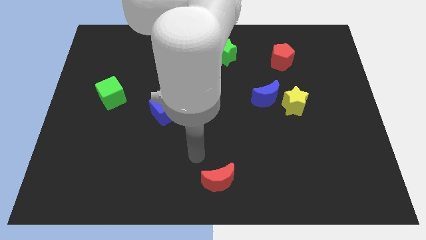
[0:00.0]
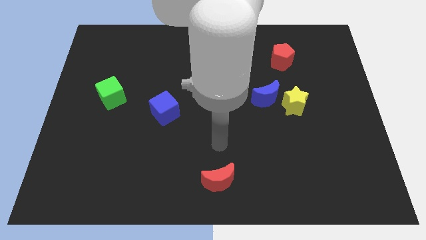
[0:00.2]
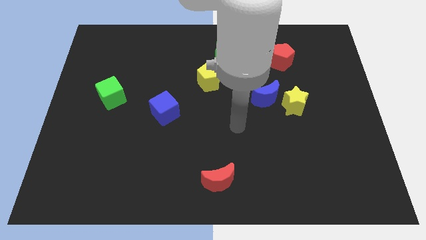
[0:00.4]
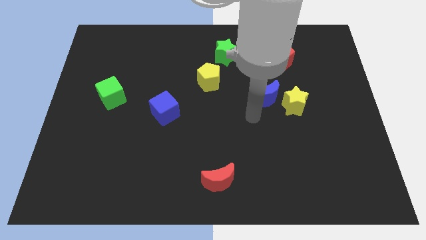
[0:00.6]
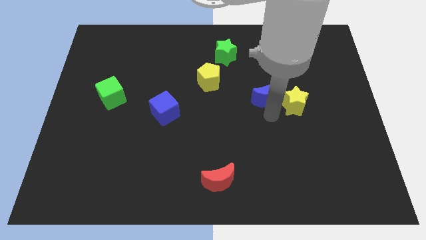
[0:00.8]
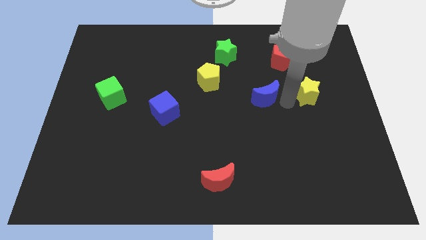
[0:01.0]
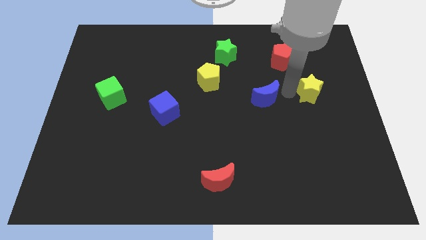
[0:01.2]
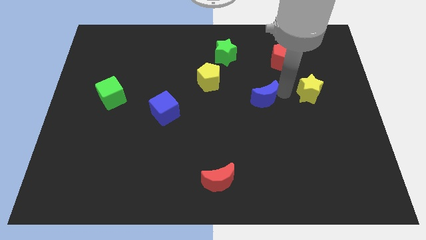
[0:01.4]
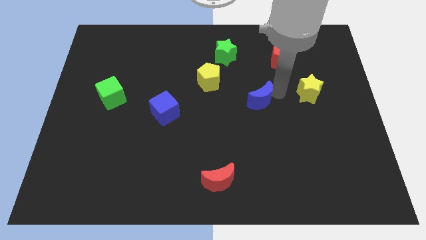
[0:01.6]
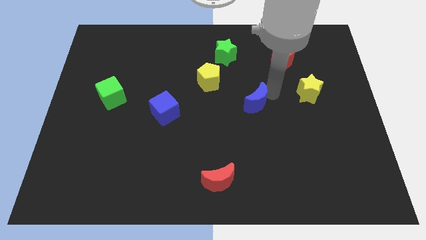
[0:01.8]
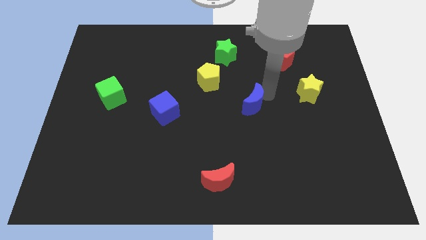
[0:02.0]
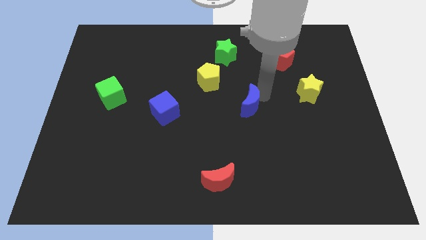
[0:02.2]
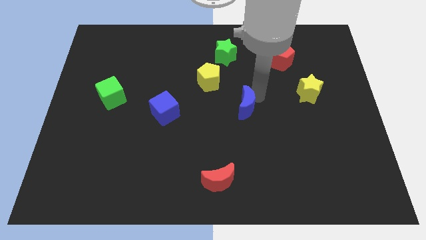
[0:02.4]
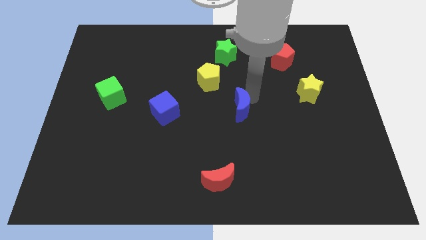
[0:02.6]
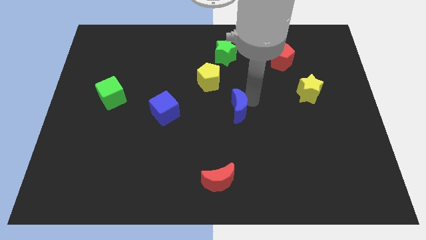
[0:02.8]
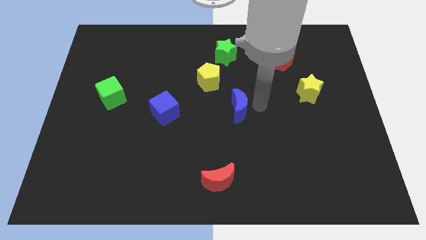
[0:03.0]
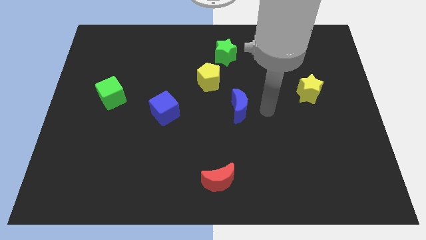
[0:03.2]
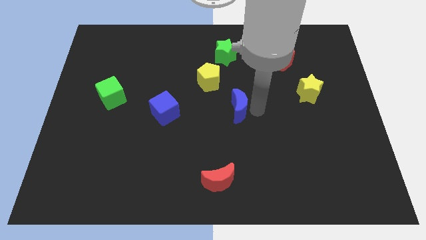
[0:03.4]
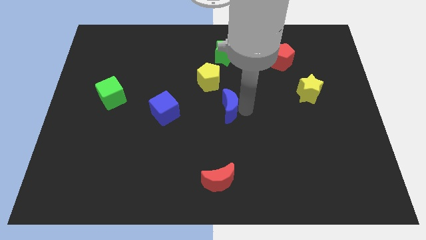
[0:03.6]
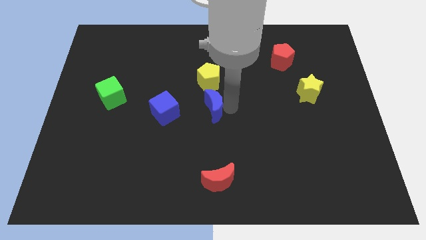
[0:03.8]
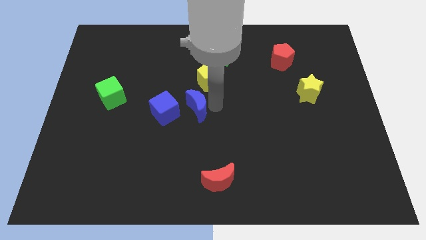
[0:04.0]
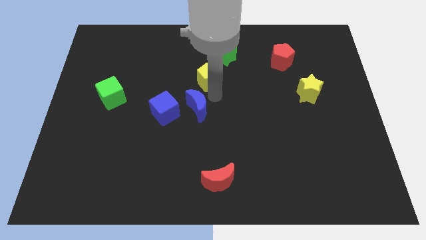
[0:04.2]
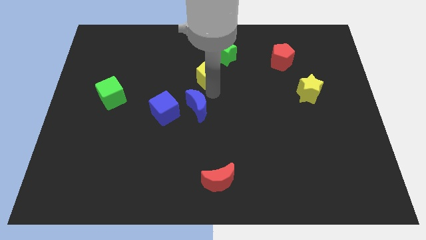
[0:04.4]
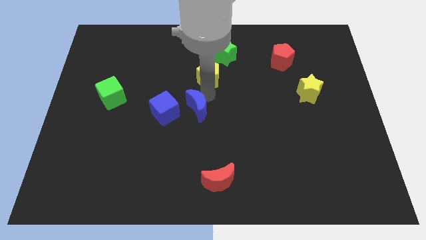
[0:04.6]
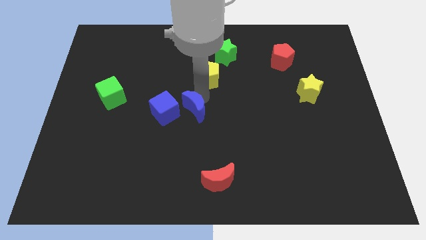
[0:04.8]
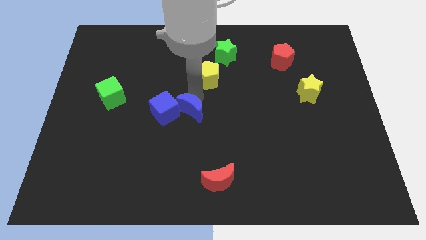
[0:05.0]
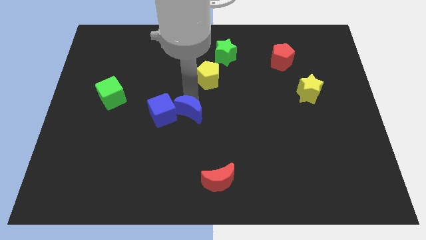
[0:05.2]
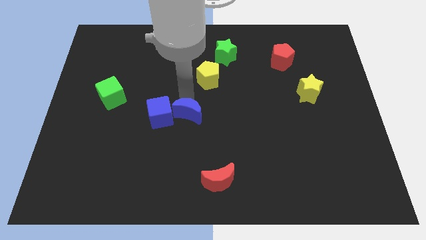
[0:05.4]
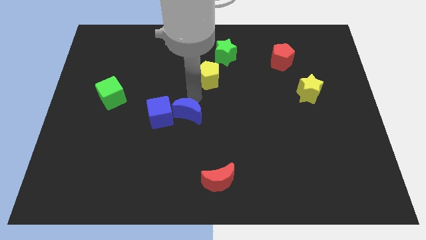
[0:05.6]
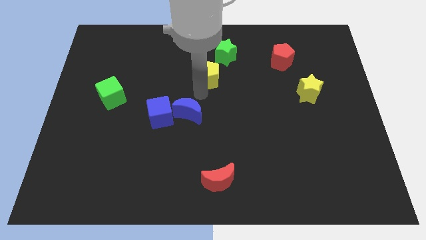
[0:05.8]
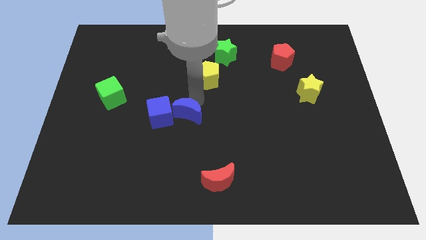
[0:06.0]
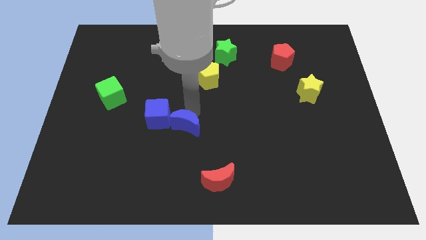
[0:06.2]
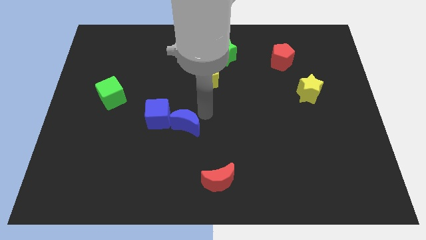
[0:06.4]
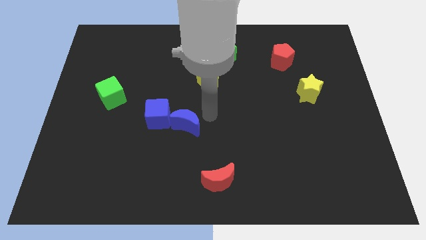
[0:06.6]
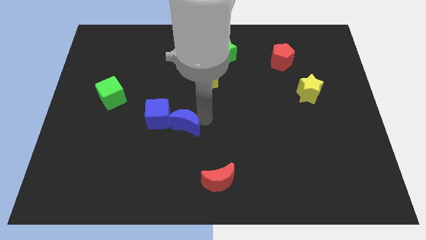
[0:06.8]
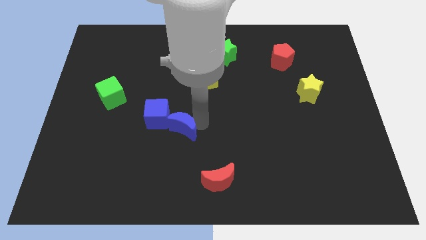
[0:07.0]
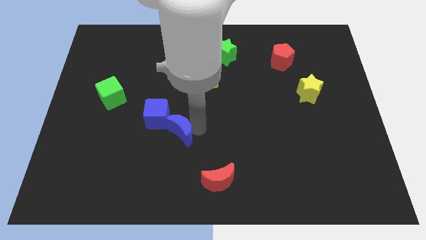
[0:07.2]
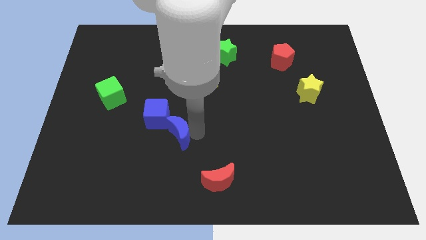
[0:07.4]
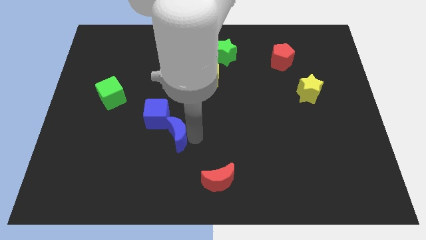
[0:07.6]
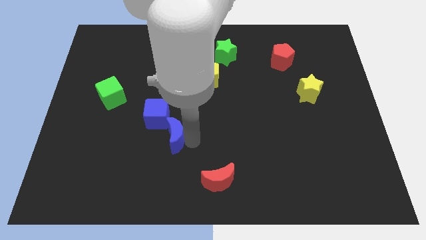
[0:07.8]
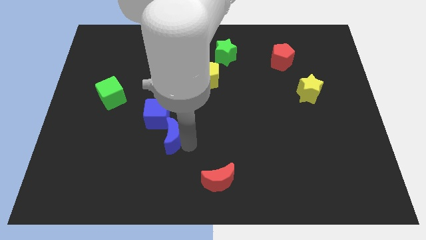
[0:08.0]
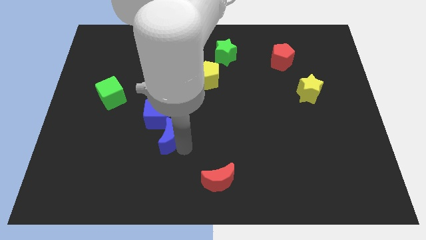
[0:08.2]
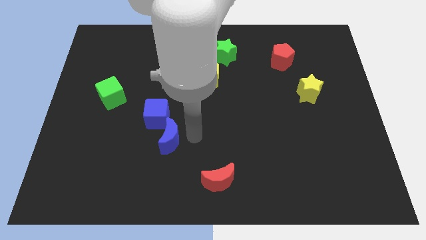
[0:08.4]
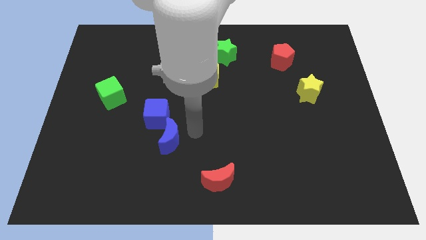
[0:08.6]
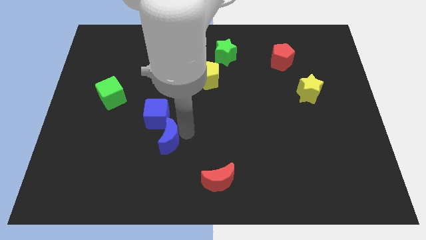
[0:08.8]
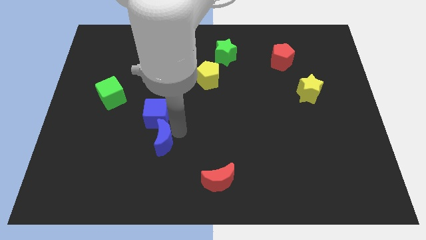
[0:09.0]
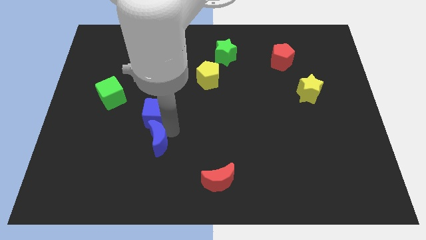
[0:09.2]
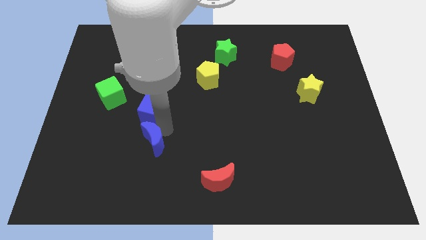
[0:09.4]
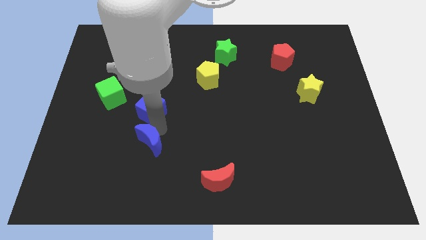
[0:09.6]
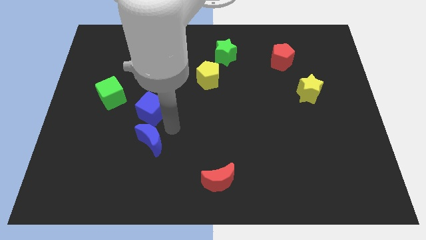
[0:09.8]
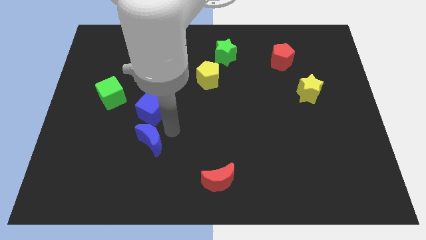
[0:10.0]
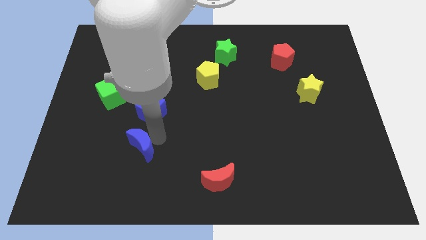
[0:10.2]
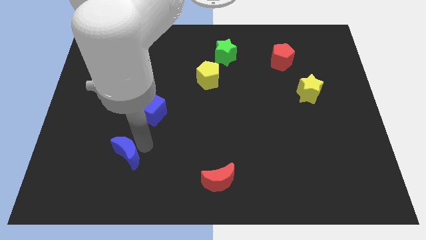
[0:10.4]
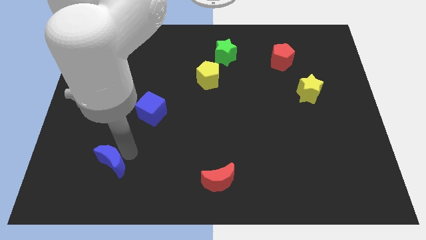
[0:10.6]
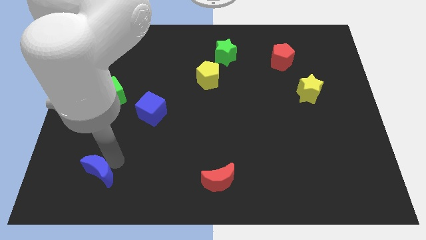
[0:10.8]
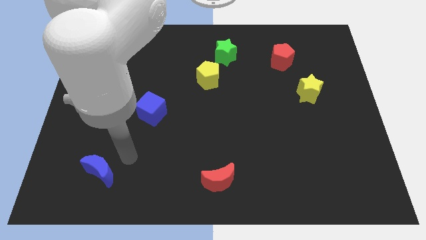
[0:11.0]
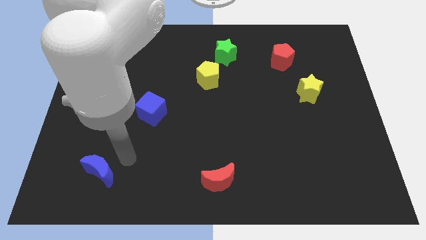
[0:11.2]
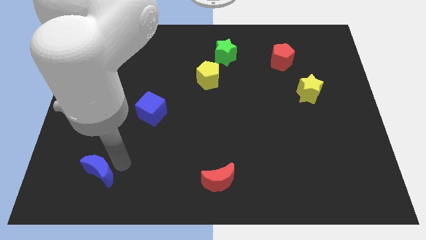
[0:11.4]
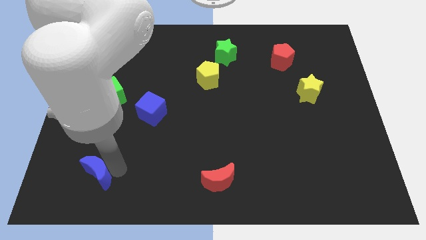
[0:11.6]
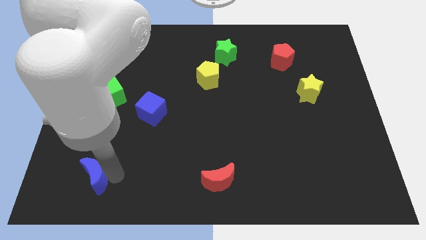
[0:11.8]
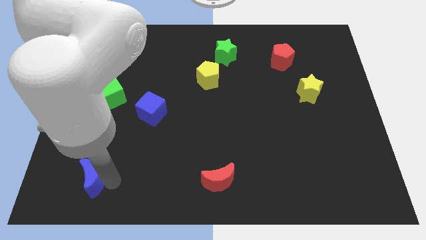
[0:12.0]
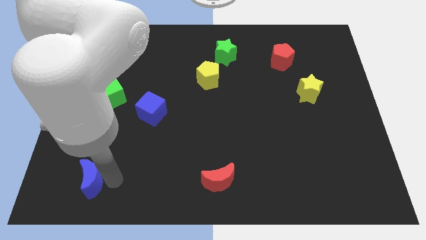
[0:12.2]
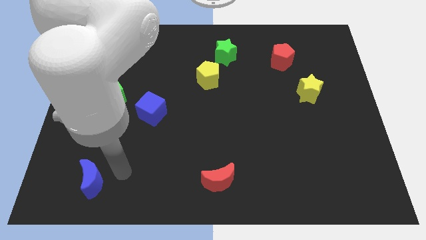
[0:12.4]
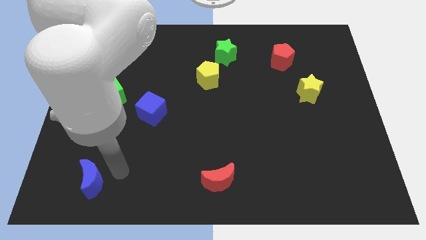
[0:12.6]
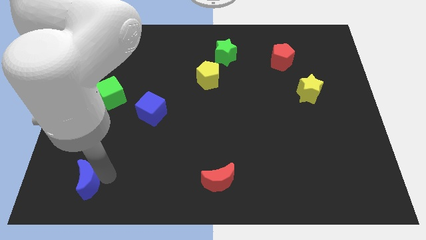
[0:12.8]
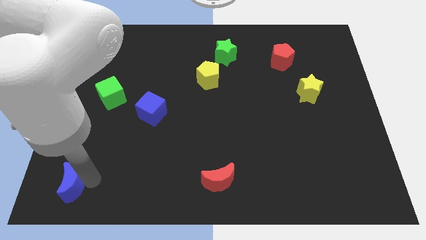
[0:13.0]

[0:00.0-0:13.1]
push the blue moon to the lower left corner
